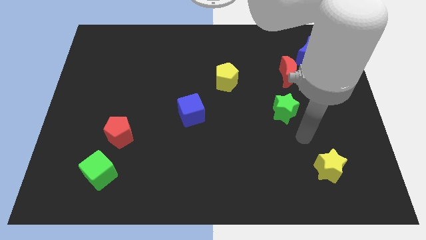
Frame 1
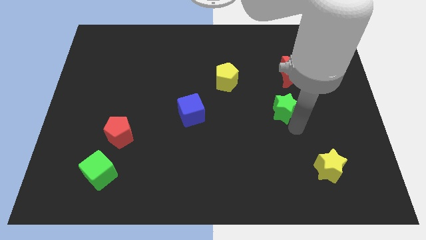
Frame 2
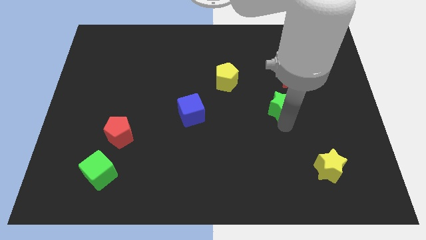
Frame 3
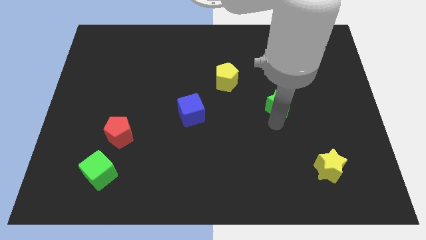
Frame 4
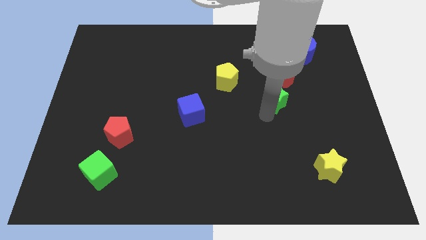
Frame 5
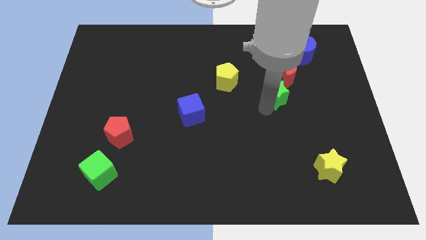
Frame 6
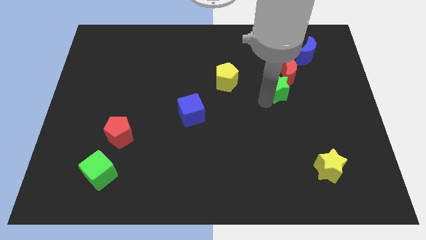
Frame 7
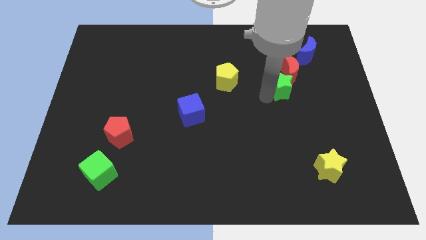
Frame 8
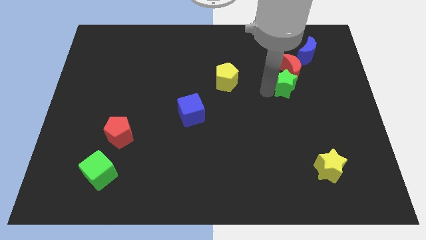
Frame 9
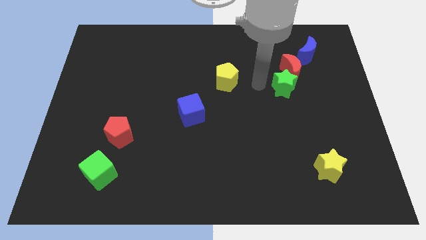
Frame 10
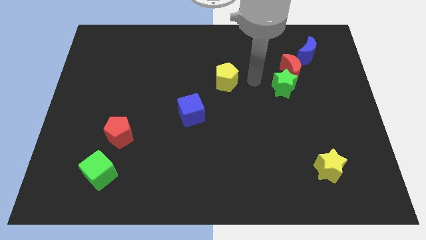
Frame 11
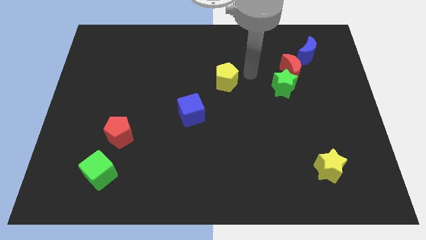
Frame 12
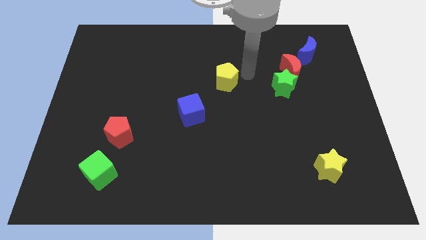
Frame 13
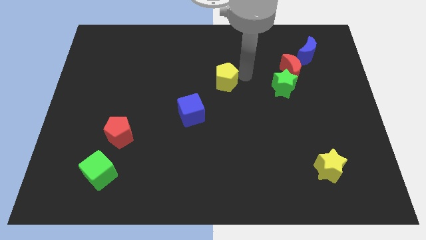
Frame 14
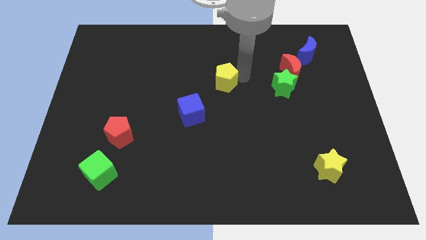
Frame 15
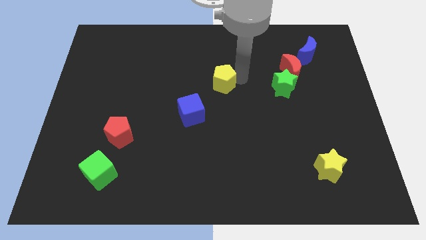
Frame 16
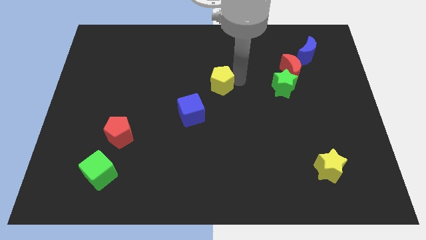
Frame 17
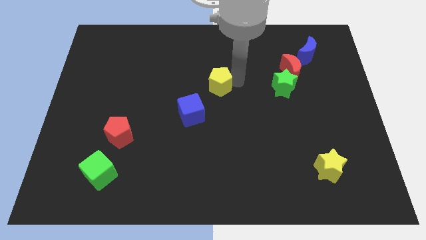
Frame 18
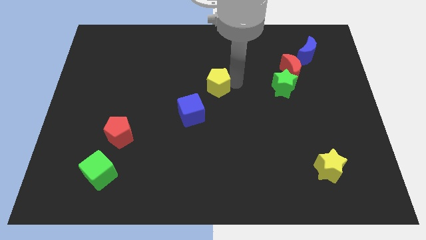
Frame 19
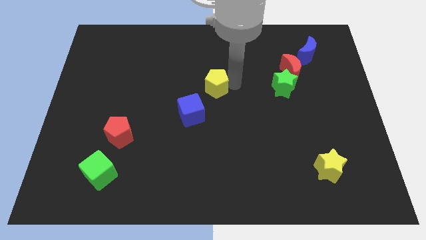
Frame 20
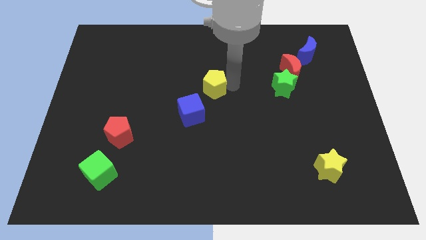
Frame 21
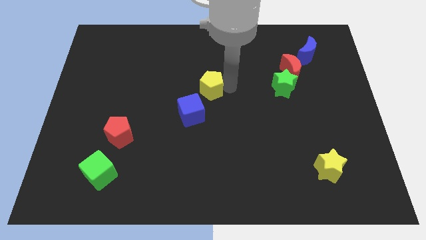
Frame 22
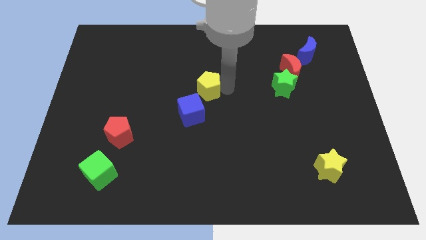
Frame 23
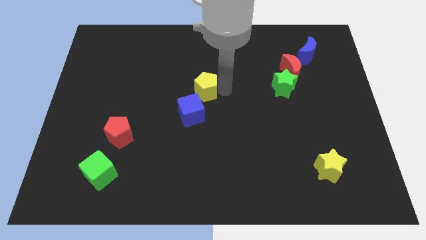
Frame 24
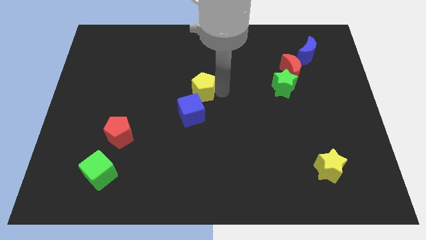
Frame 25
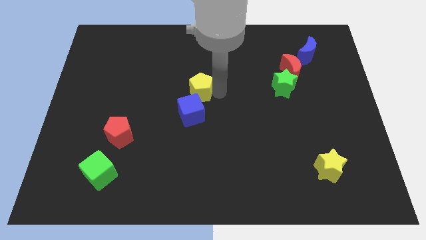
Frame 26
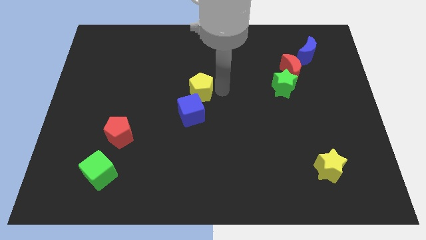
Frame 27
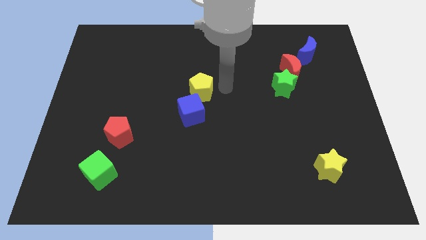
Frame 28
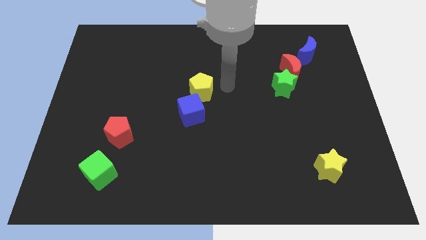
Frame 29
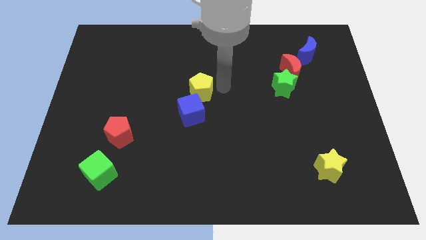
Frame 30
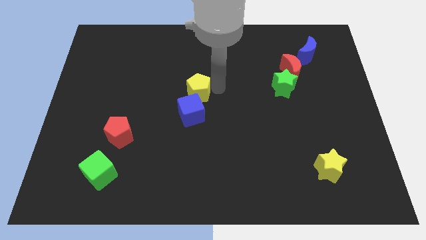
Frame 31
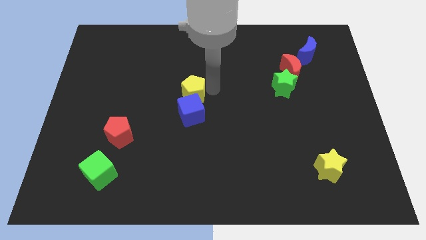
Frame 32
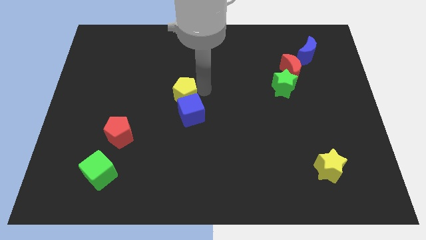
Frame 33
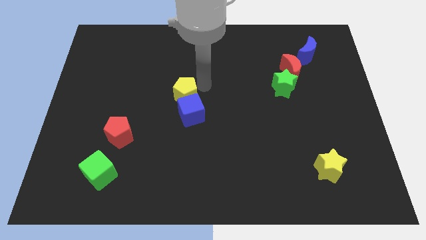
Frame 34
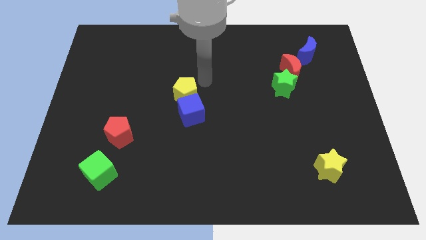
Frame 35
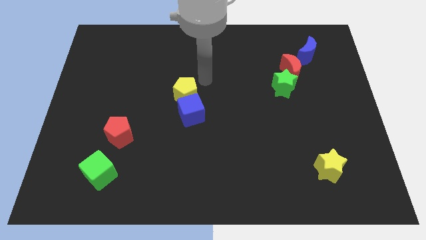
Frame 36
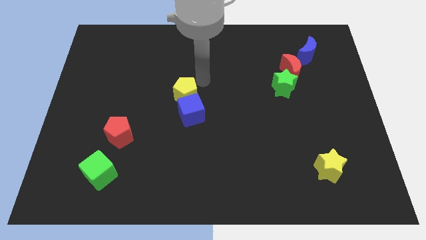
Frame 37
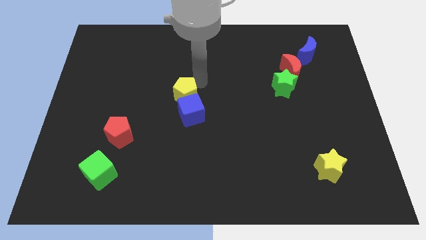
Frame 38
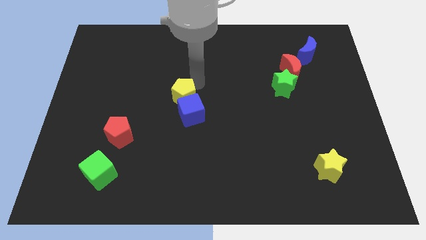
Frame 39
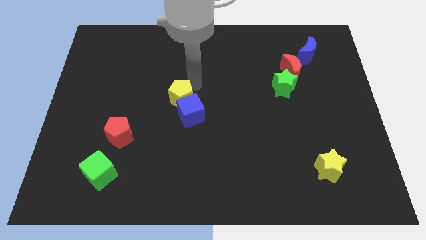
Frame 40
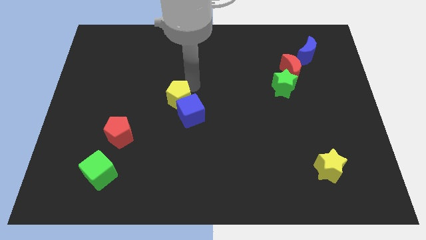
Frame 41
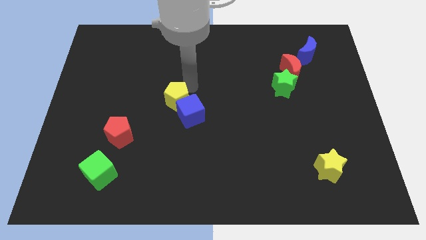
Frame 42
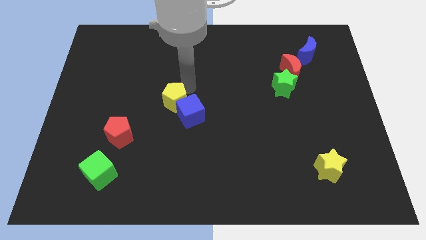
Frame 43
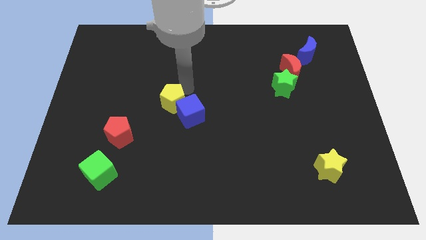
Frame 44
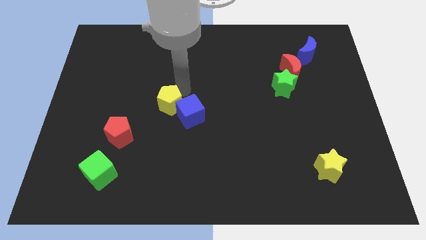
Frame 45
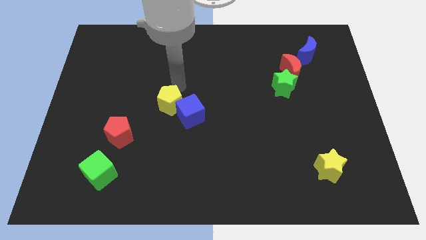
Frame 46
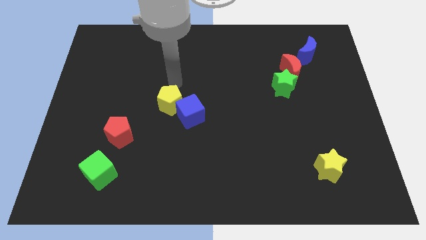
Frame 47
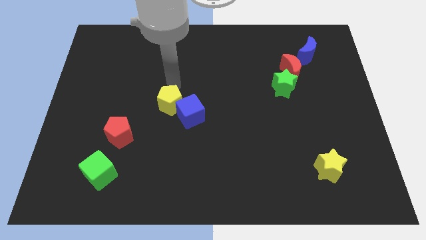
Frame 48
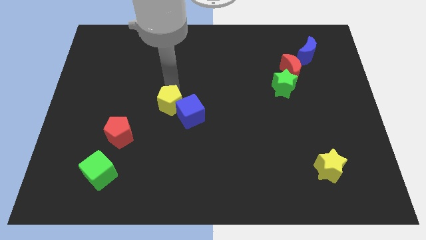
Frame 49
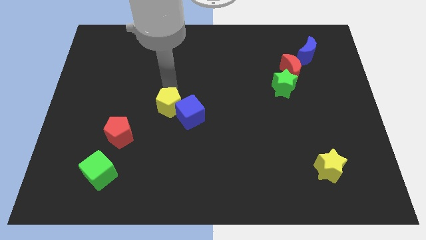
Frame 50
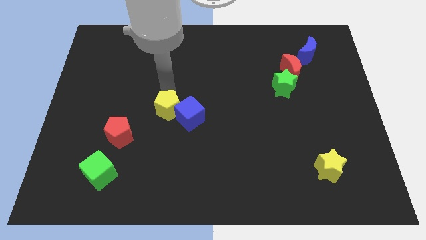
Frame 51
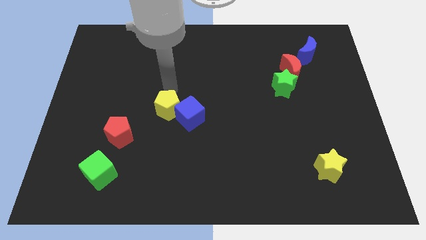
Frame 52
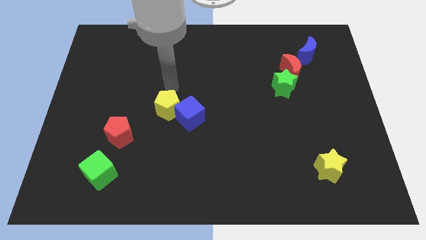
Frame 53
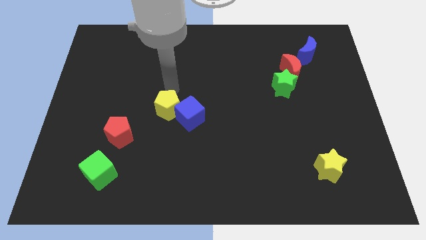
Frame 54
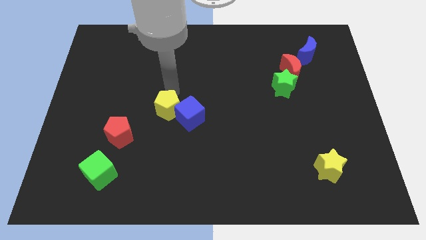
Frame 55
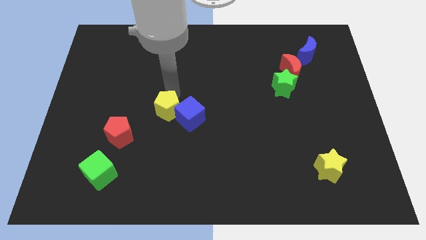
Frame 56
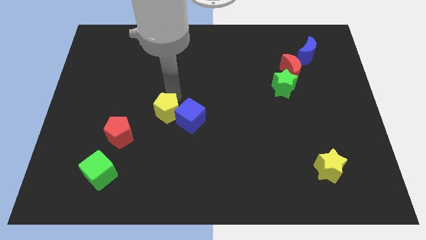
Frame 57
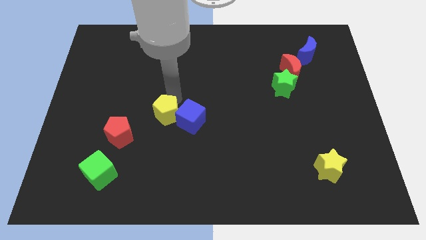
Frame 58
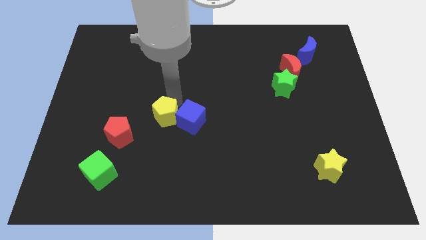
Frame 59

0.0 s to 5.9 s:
slide the yellow pentagon to the bottom left of the blue cube

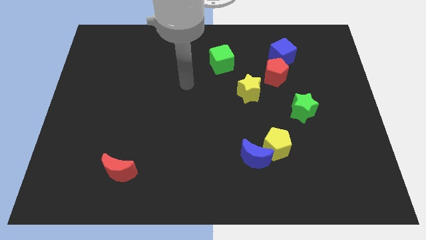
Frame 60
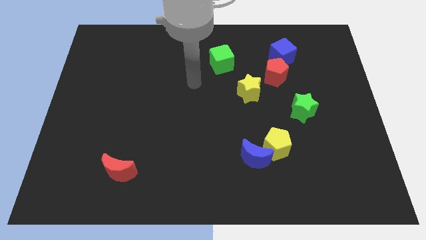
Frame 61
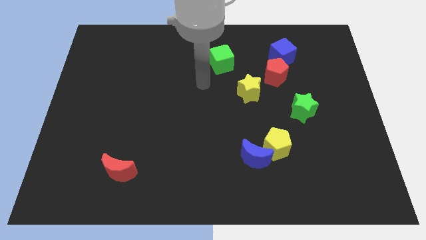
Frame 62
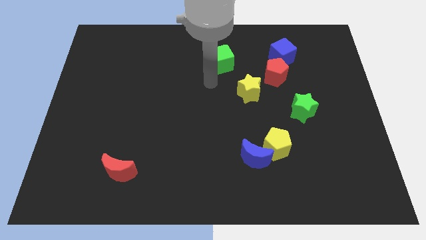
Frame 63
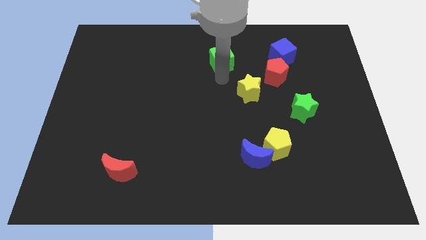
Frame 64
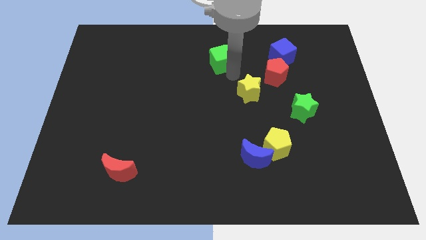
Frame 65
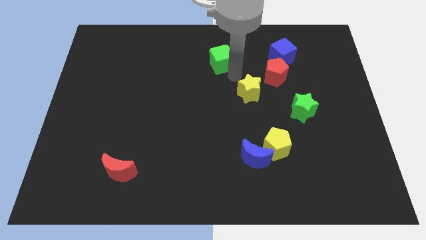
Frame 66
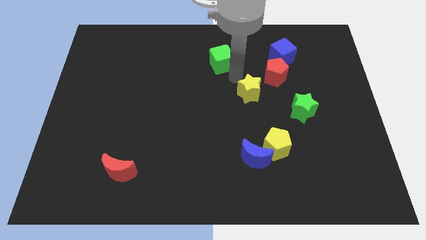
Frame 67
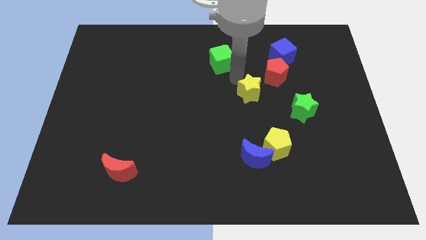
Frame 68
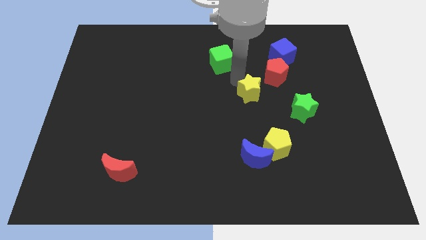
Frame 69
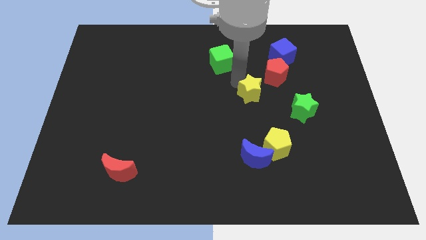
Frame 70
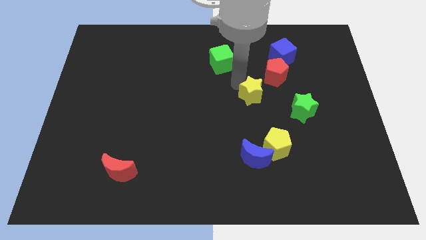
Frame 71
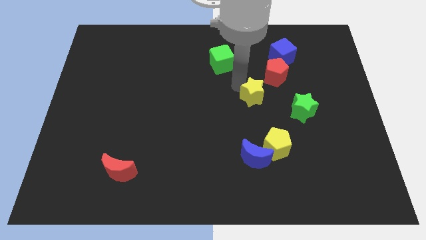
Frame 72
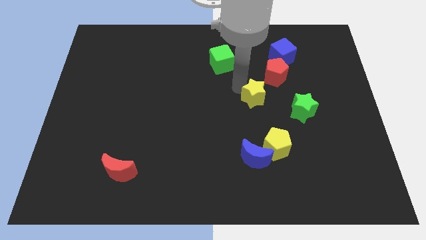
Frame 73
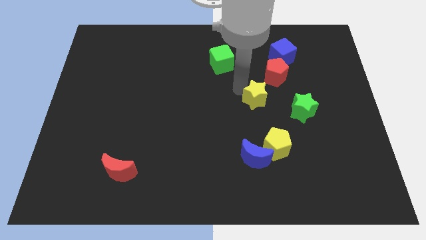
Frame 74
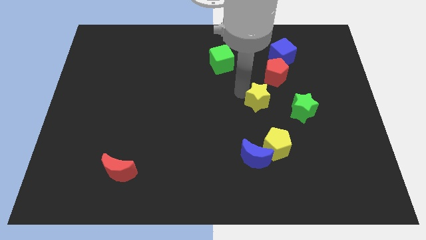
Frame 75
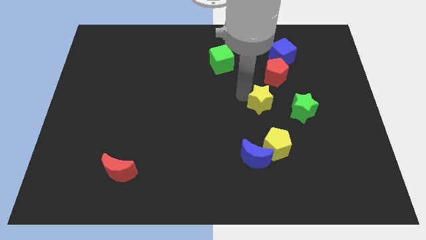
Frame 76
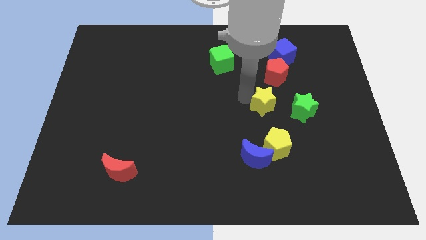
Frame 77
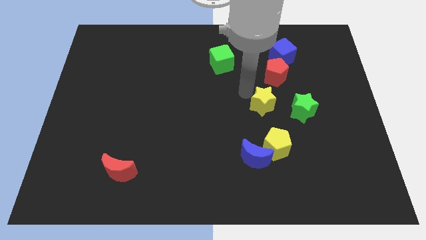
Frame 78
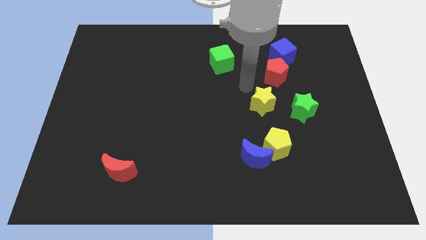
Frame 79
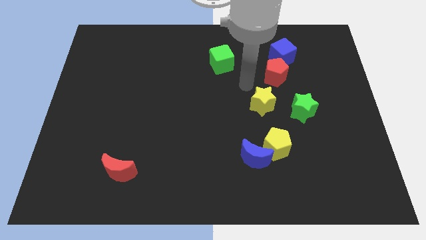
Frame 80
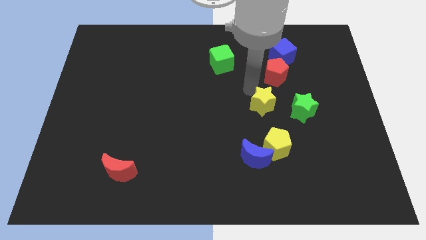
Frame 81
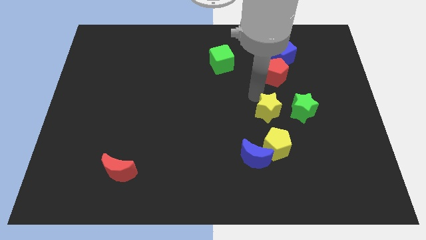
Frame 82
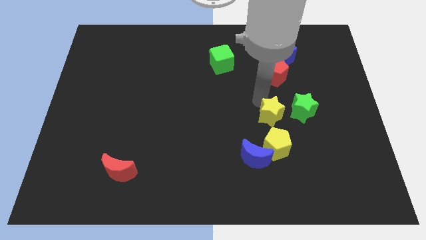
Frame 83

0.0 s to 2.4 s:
move the yellow star to the bottom left of the green star
